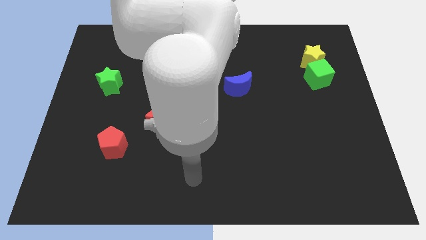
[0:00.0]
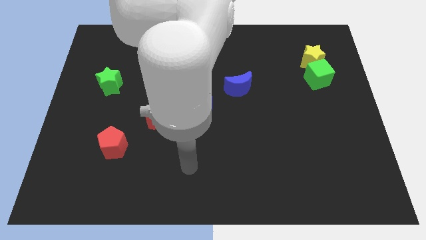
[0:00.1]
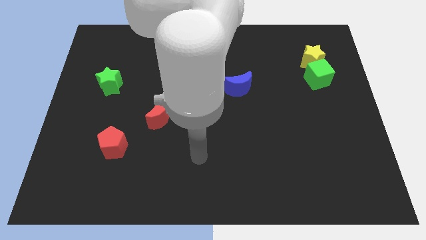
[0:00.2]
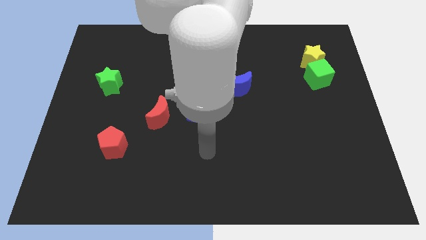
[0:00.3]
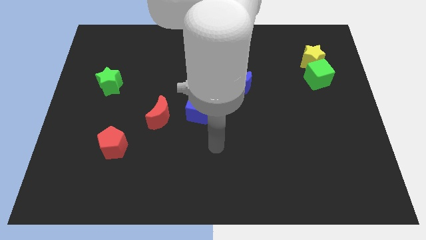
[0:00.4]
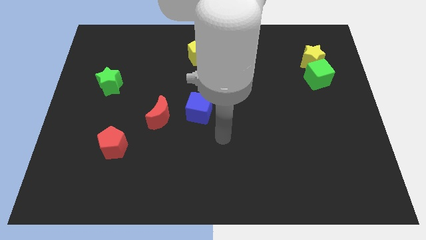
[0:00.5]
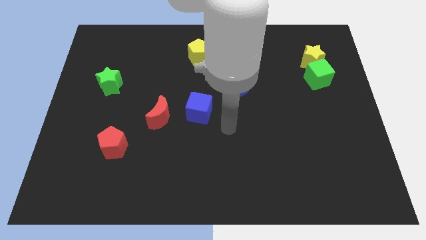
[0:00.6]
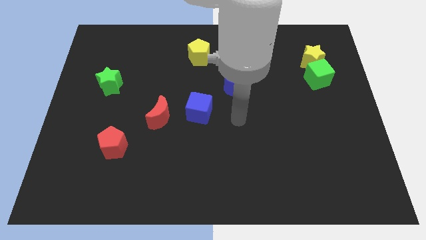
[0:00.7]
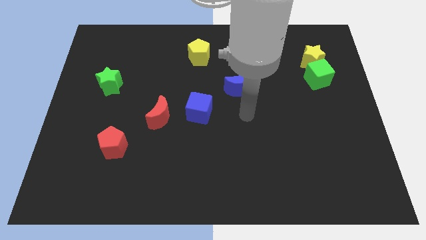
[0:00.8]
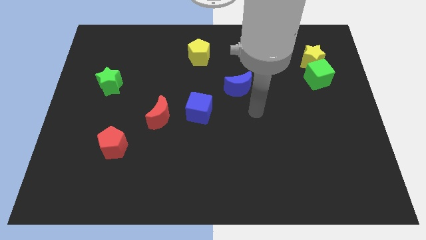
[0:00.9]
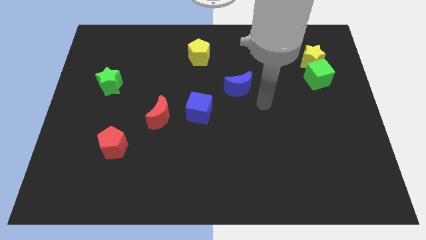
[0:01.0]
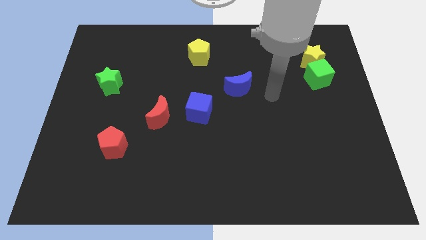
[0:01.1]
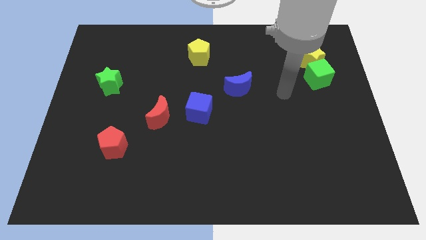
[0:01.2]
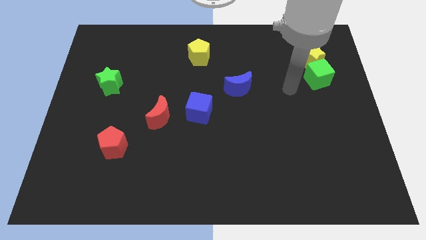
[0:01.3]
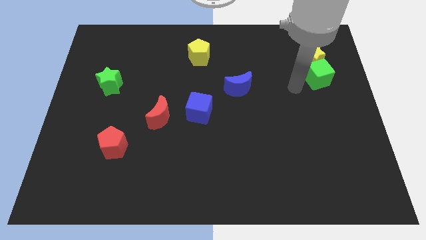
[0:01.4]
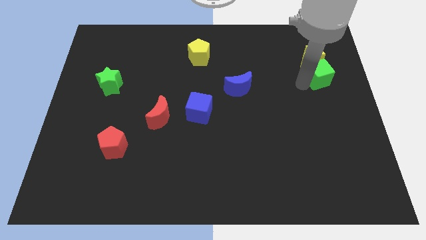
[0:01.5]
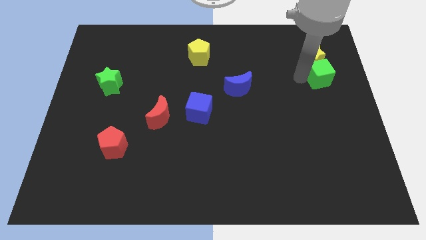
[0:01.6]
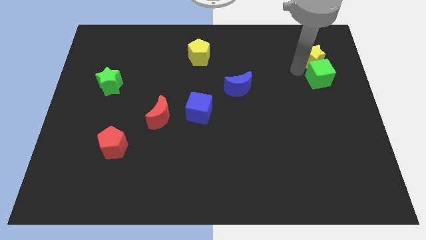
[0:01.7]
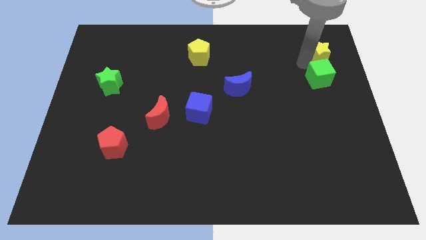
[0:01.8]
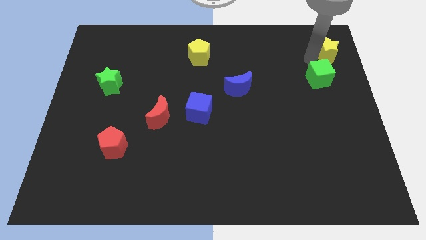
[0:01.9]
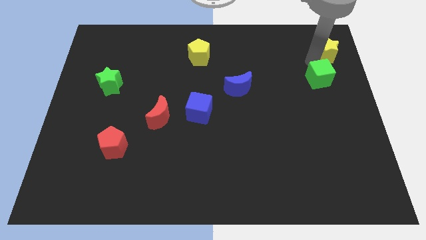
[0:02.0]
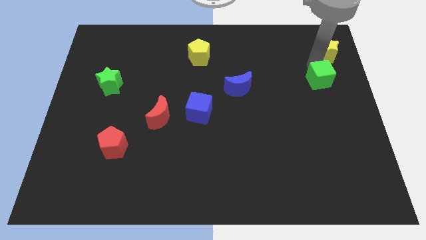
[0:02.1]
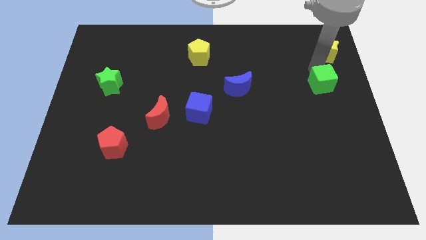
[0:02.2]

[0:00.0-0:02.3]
pull the green cube apart from the yellow star

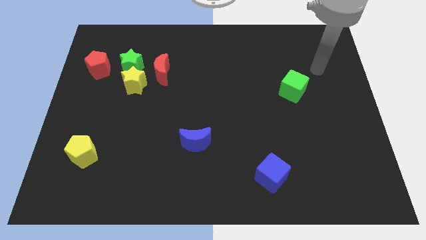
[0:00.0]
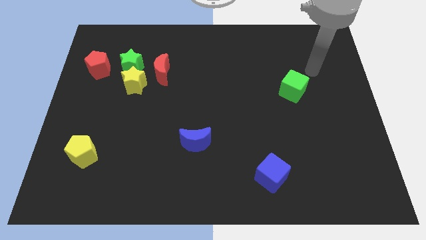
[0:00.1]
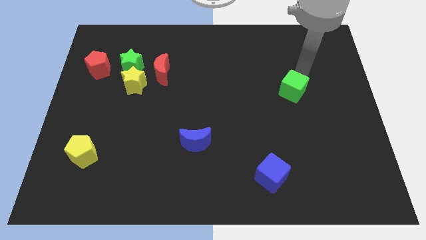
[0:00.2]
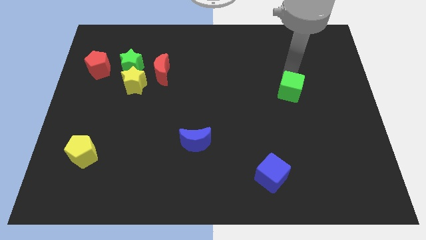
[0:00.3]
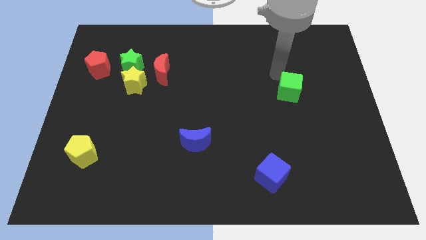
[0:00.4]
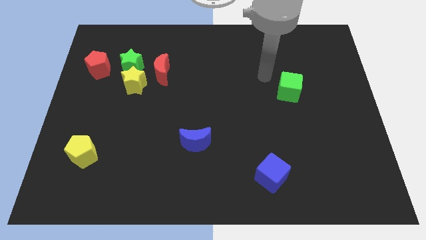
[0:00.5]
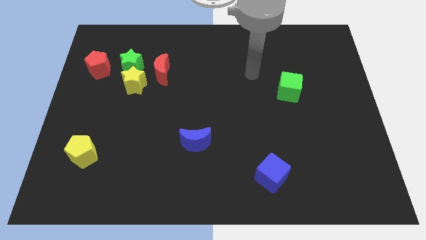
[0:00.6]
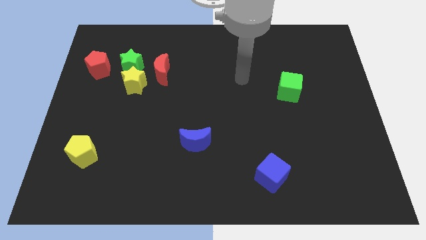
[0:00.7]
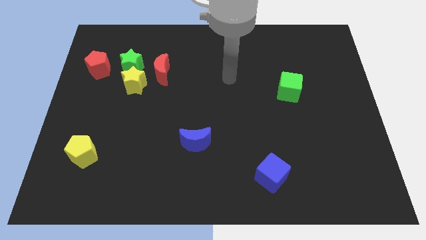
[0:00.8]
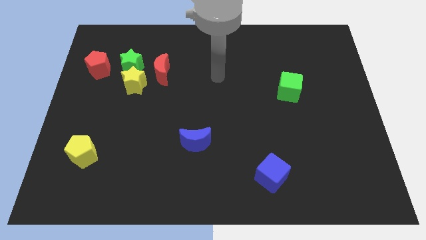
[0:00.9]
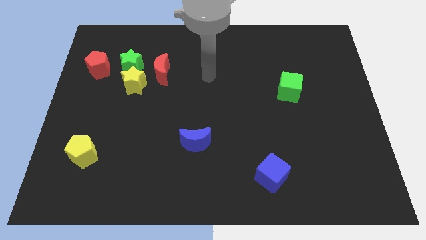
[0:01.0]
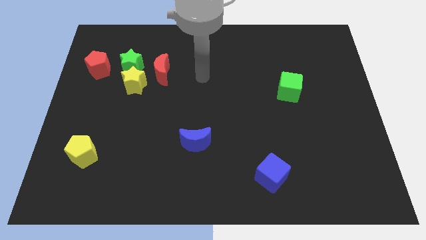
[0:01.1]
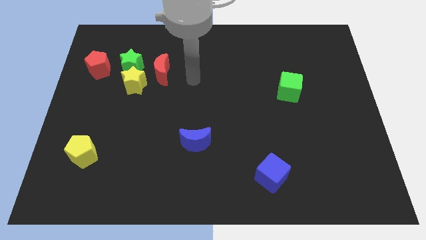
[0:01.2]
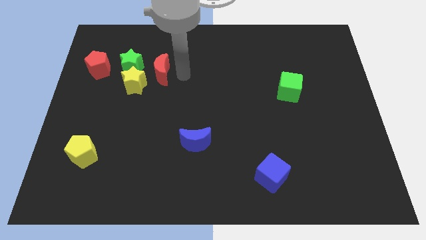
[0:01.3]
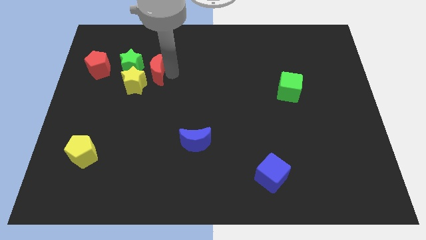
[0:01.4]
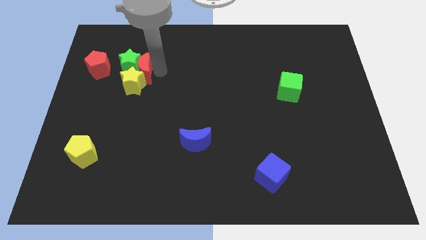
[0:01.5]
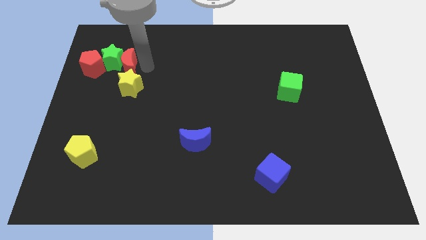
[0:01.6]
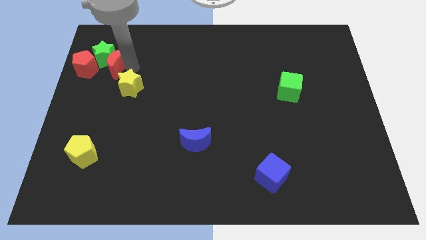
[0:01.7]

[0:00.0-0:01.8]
move the yellow star away from the green star and red moon

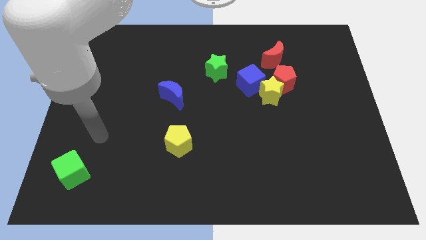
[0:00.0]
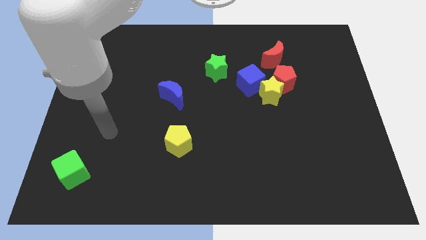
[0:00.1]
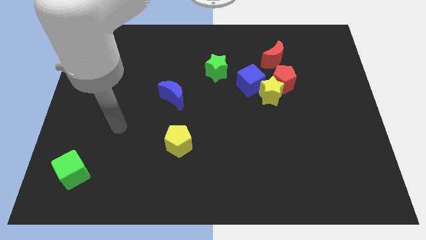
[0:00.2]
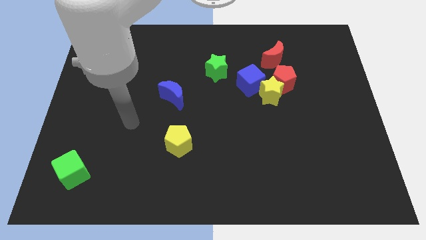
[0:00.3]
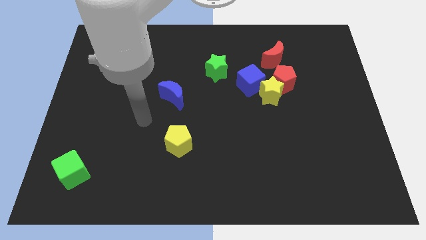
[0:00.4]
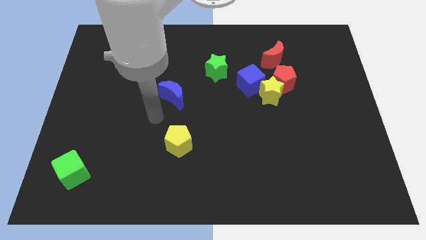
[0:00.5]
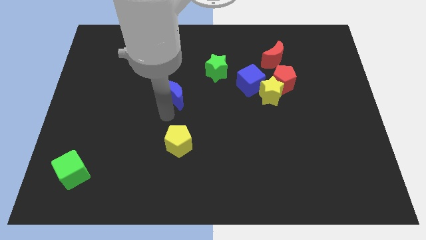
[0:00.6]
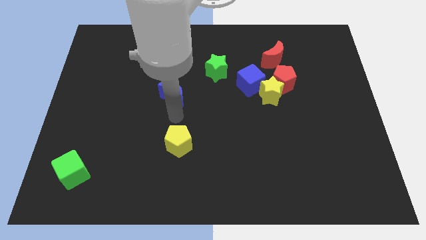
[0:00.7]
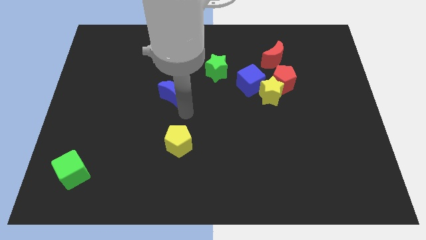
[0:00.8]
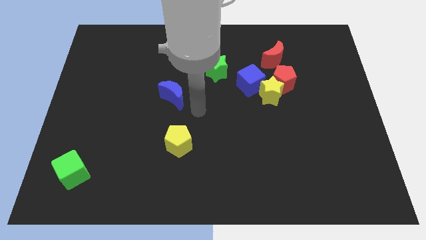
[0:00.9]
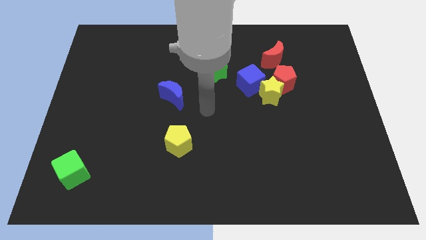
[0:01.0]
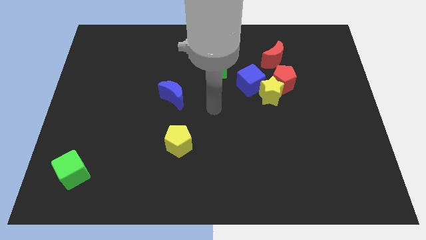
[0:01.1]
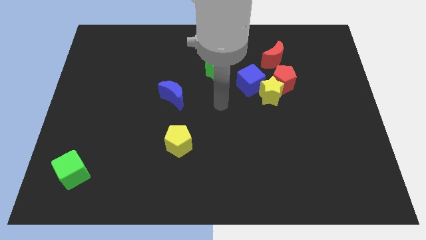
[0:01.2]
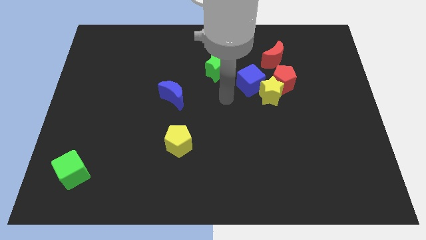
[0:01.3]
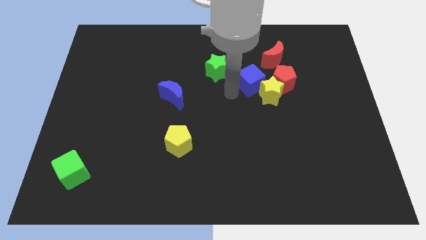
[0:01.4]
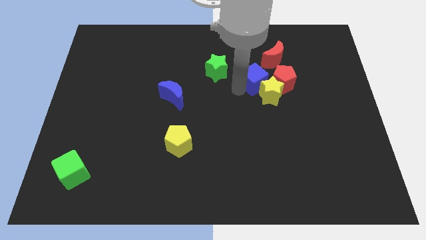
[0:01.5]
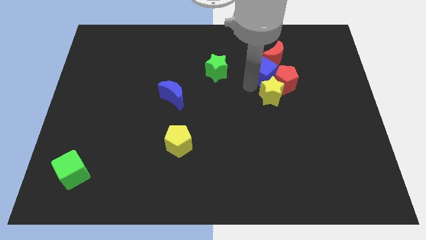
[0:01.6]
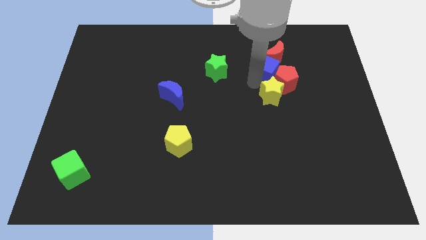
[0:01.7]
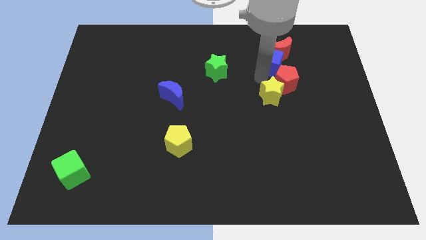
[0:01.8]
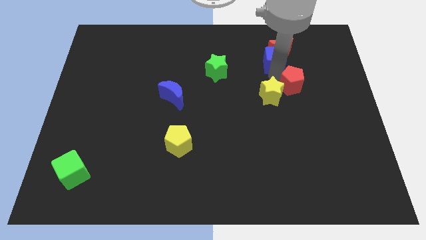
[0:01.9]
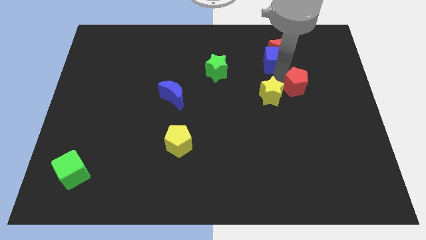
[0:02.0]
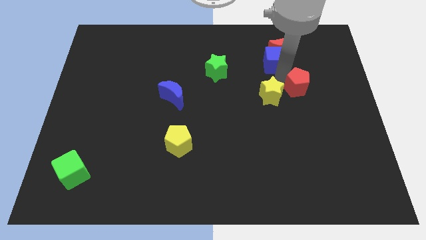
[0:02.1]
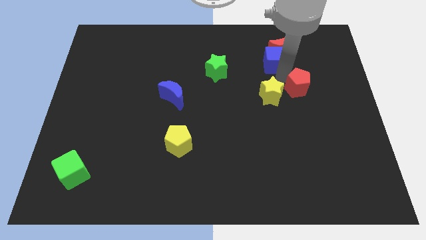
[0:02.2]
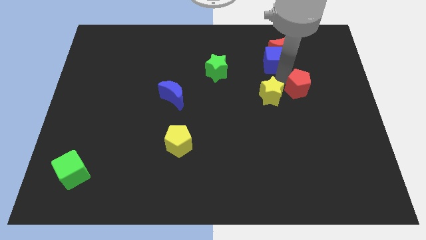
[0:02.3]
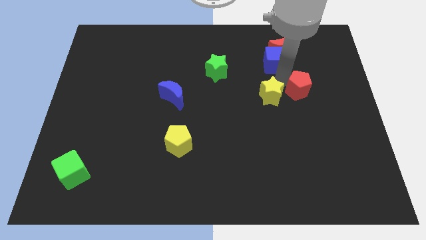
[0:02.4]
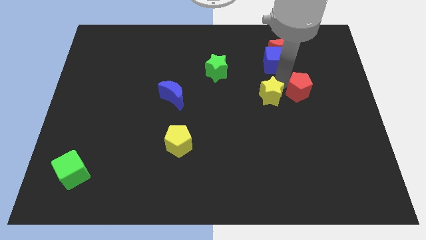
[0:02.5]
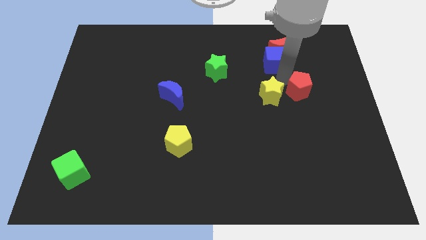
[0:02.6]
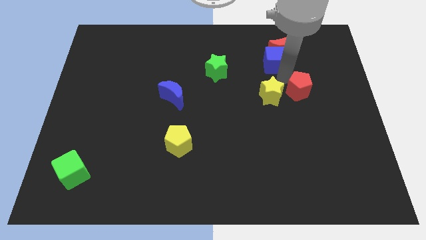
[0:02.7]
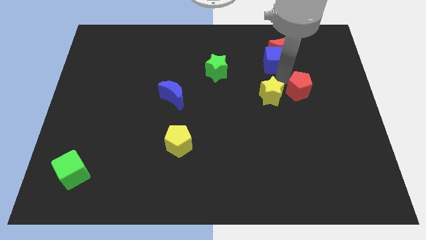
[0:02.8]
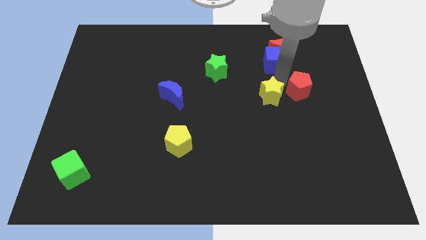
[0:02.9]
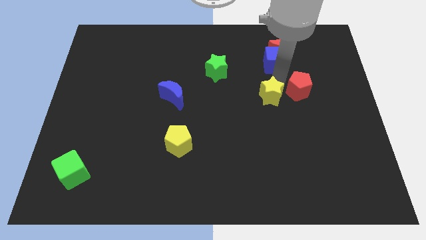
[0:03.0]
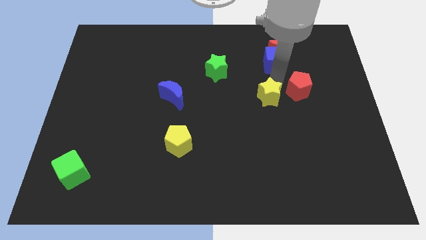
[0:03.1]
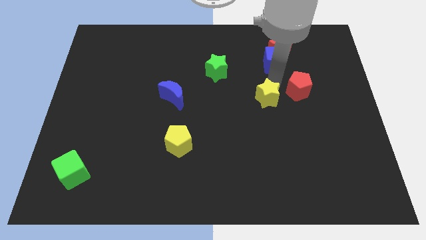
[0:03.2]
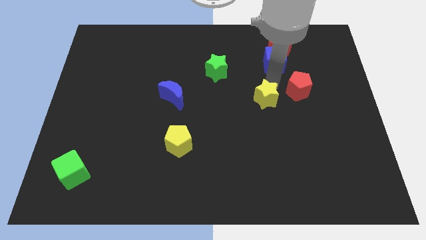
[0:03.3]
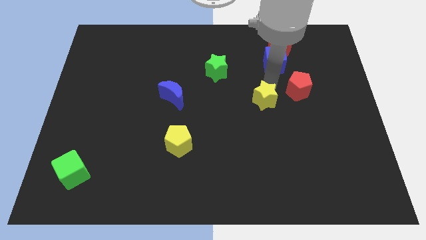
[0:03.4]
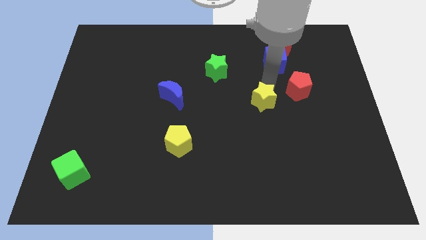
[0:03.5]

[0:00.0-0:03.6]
move the yellow star away from the red pentagon and blue cube

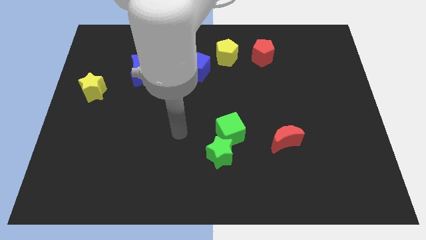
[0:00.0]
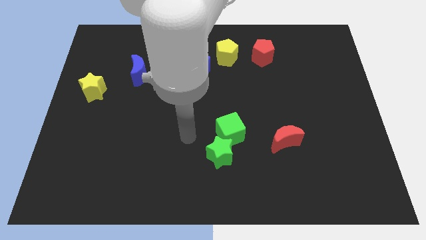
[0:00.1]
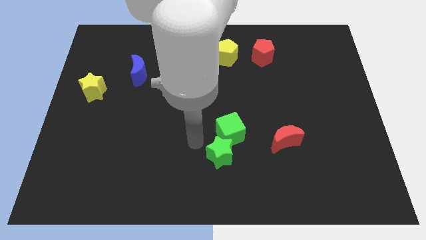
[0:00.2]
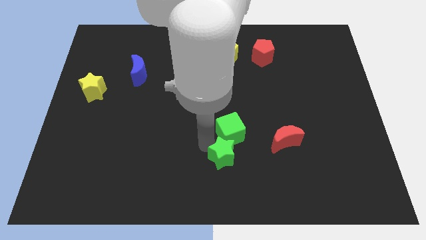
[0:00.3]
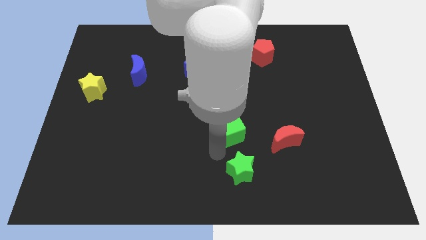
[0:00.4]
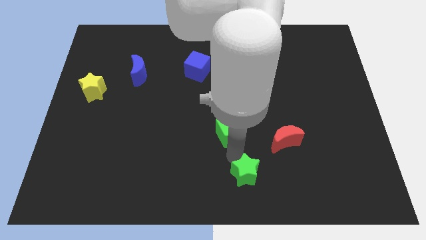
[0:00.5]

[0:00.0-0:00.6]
pull the green cube apart from the green star

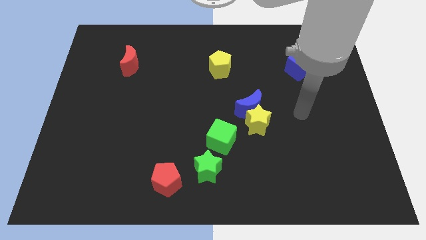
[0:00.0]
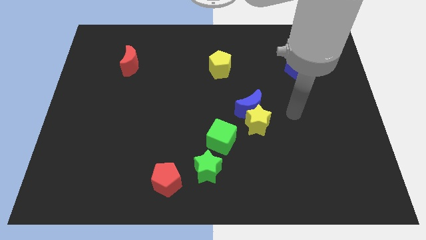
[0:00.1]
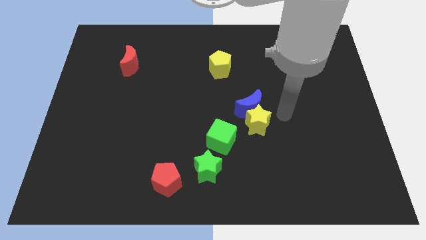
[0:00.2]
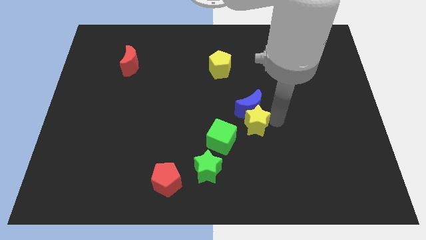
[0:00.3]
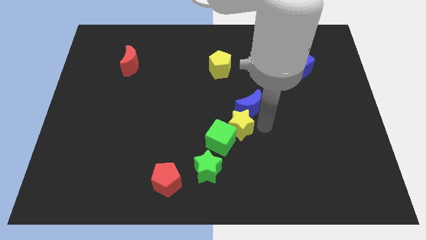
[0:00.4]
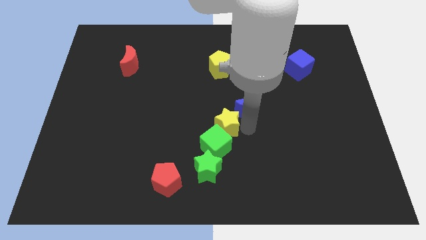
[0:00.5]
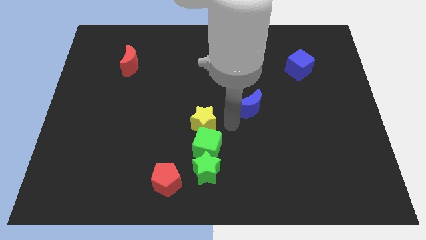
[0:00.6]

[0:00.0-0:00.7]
separate the blue moon from the yellow star

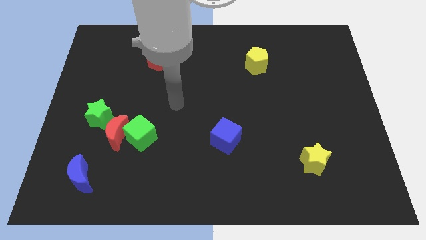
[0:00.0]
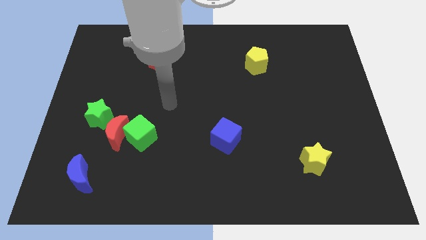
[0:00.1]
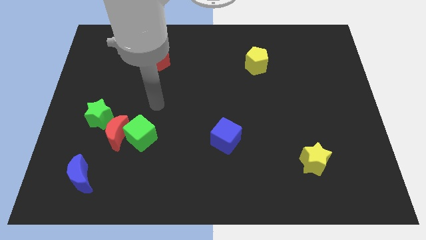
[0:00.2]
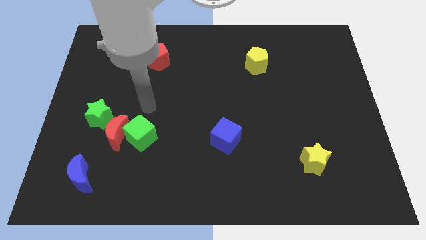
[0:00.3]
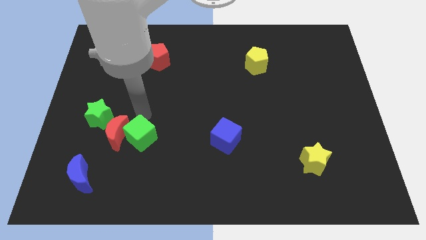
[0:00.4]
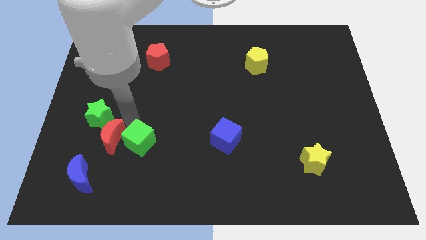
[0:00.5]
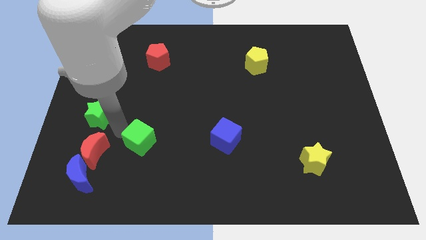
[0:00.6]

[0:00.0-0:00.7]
separate the green cube from the red moon
